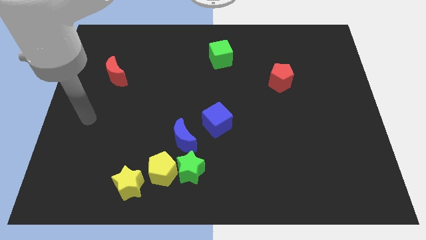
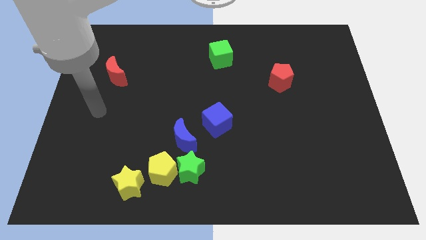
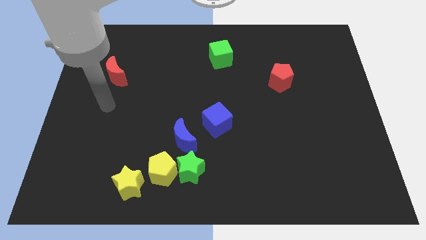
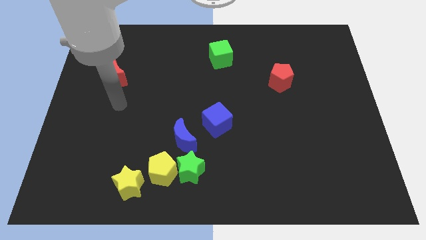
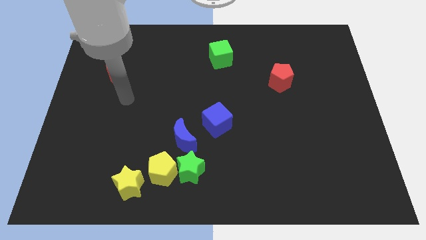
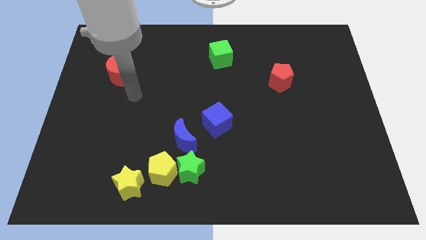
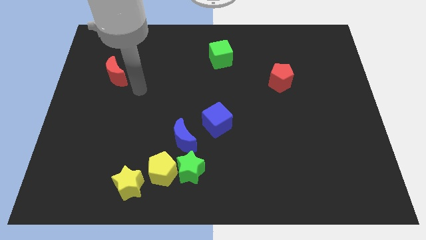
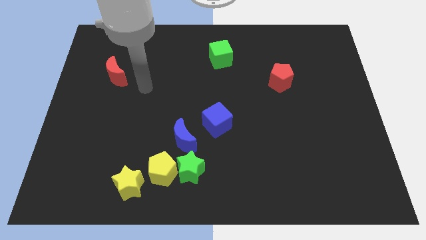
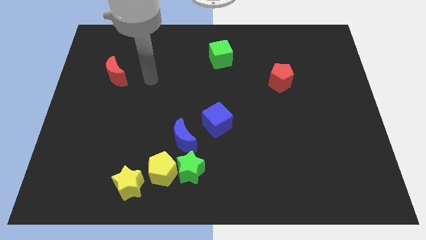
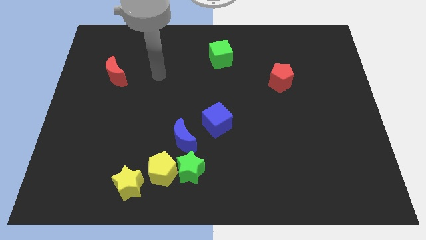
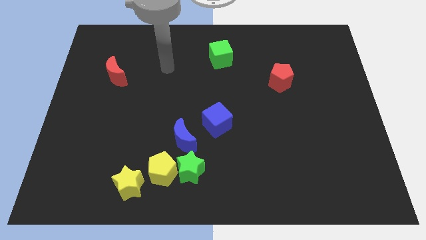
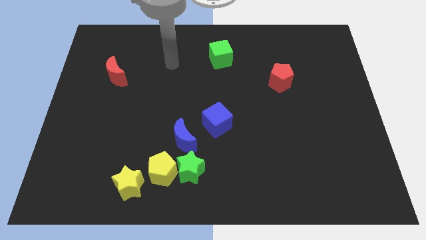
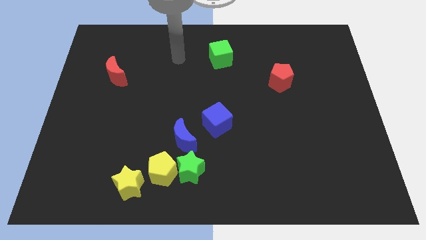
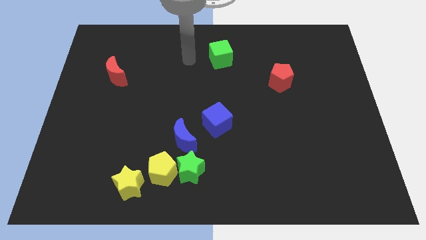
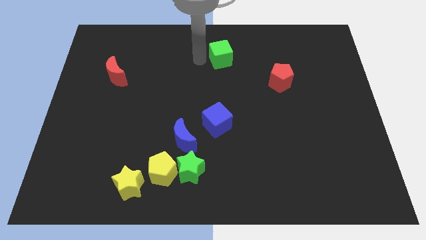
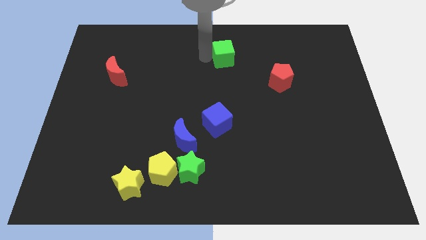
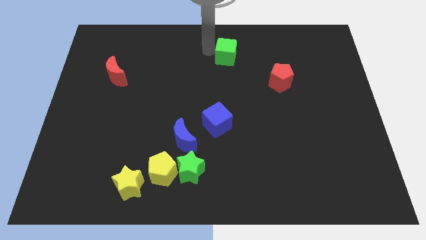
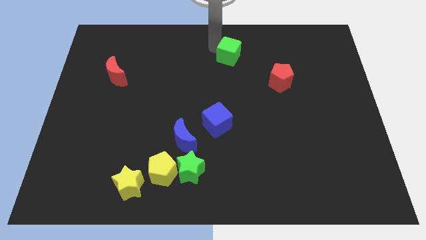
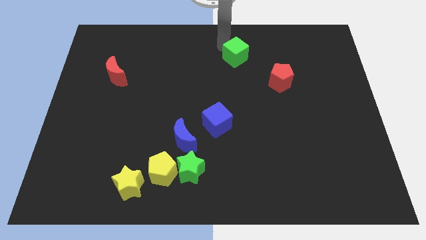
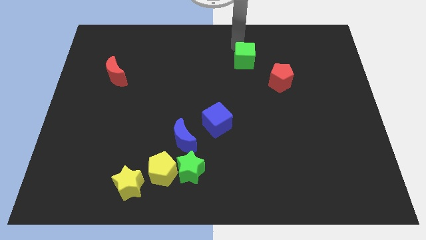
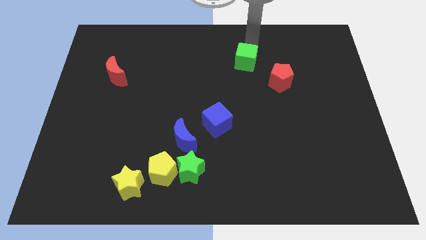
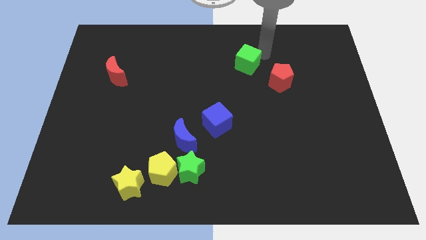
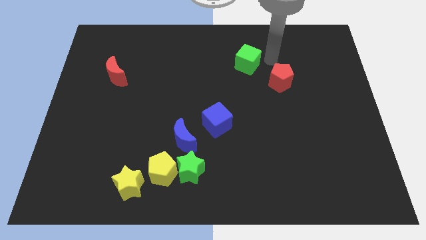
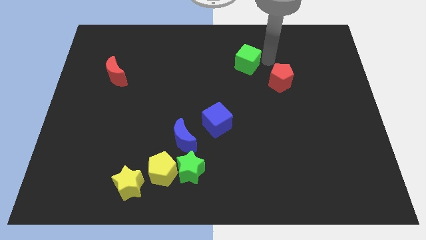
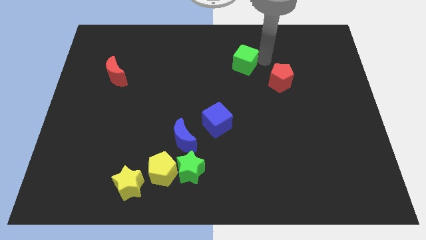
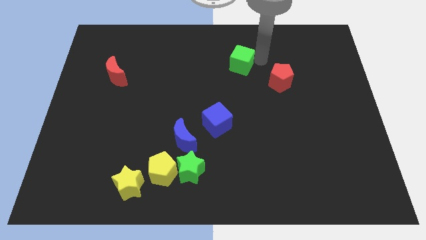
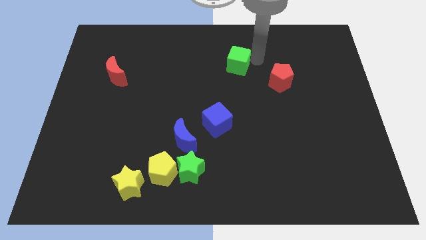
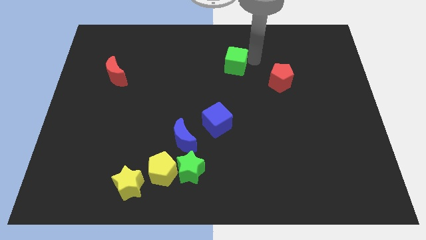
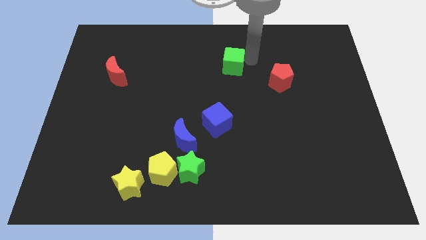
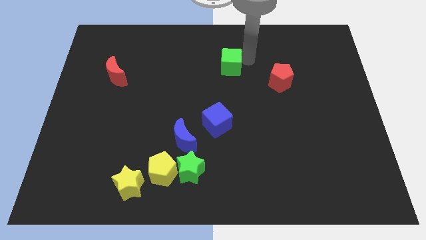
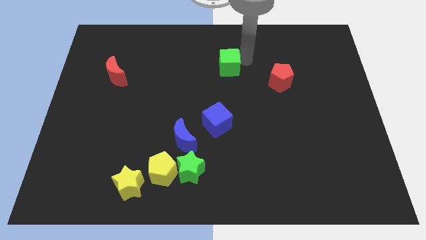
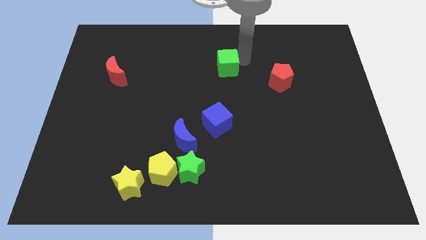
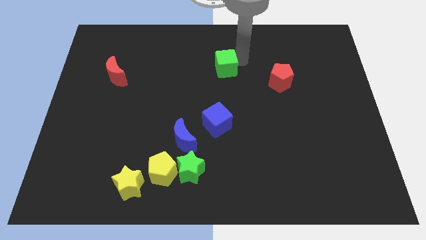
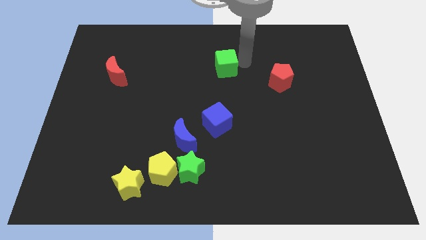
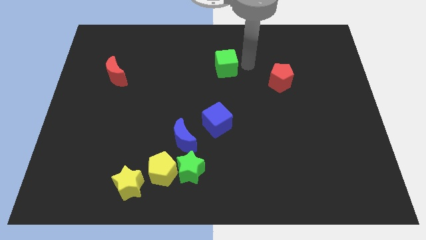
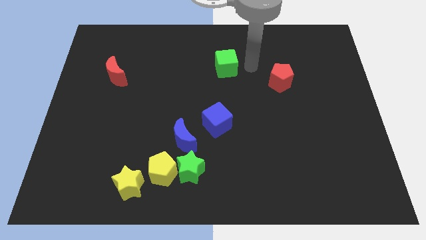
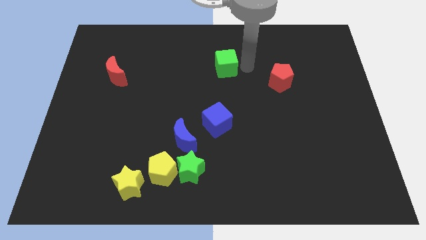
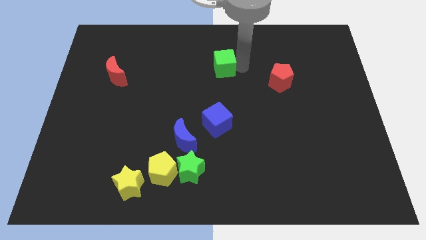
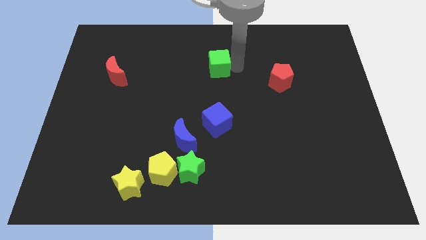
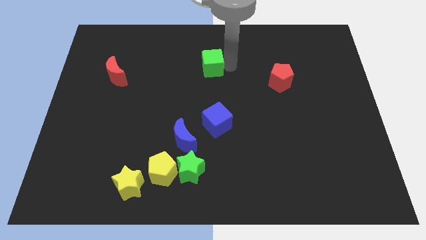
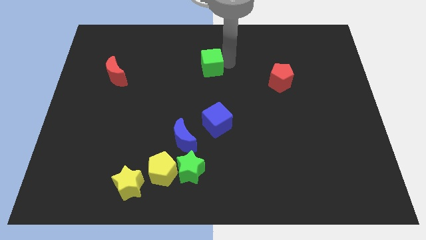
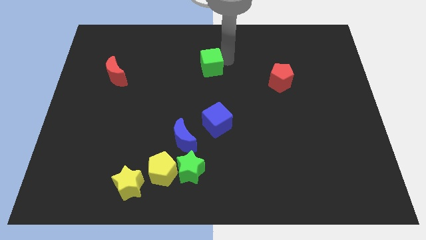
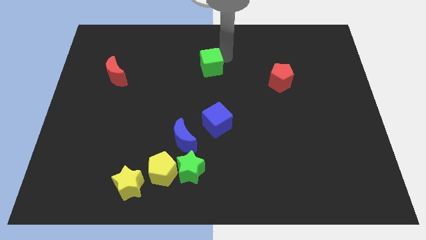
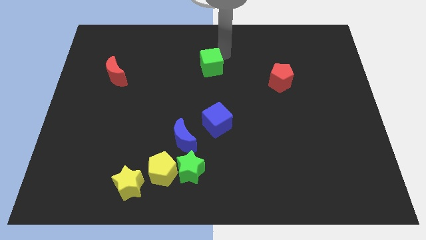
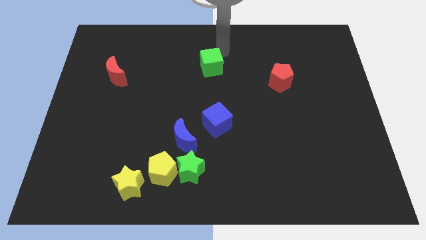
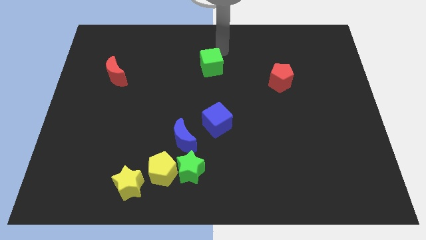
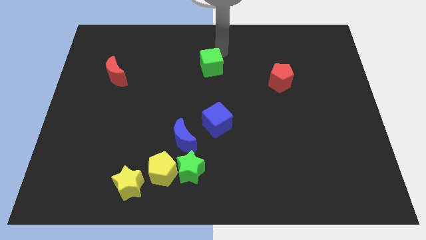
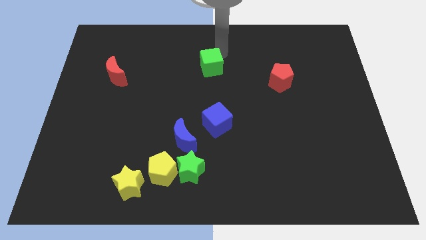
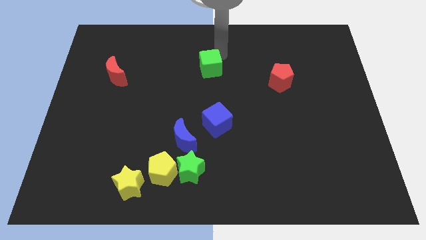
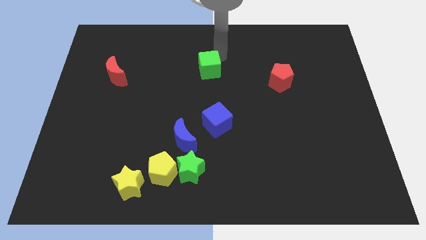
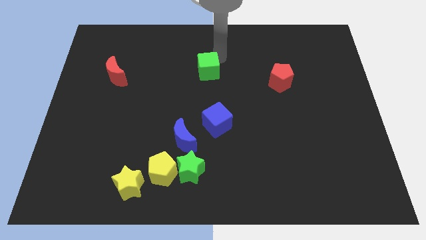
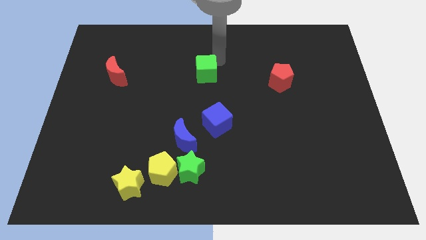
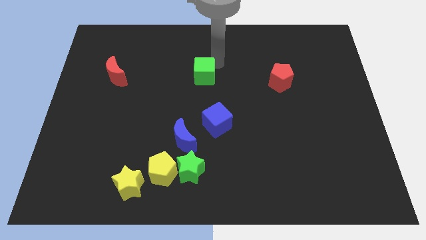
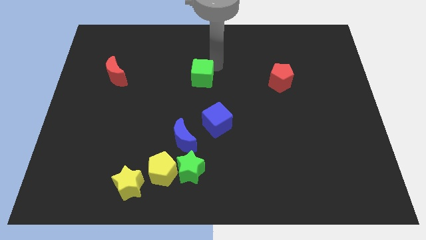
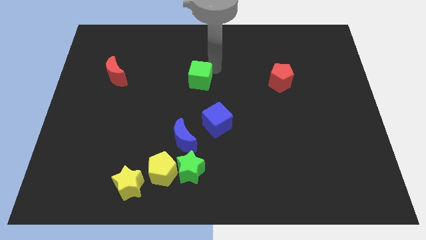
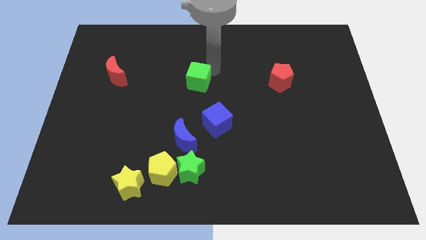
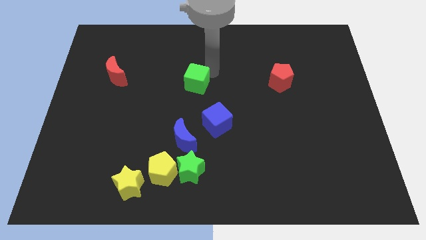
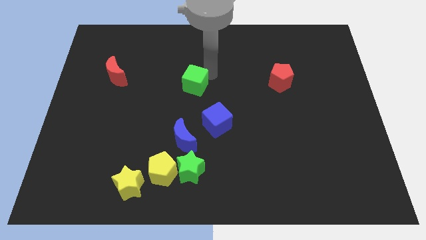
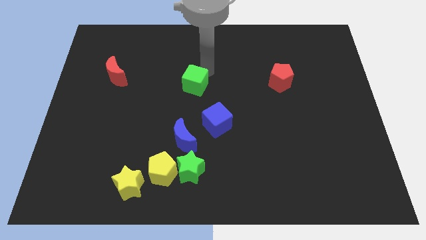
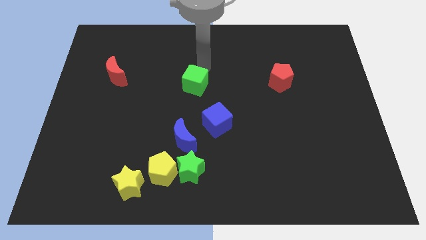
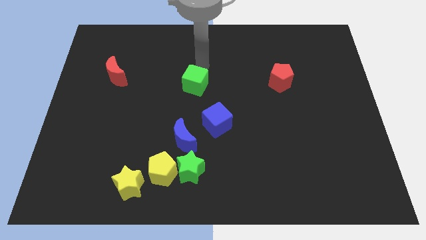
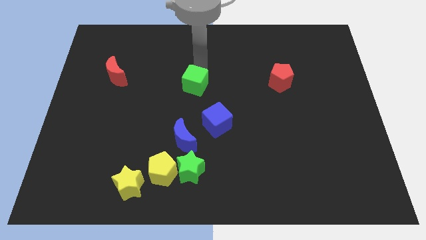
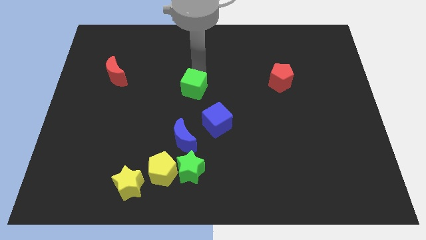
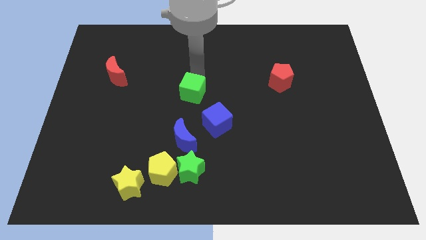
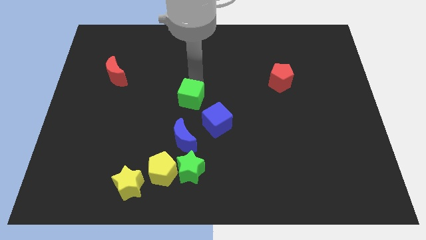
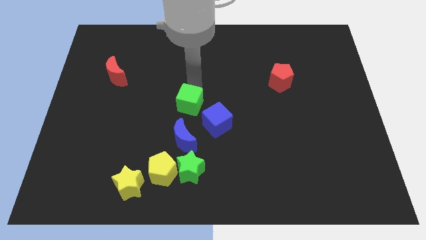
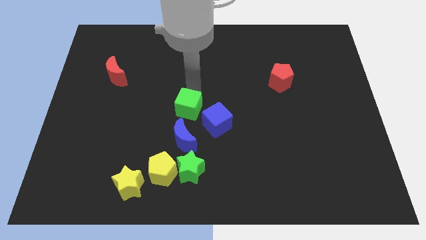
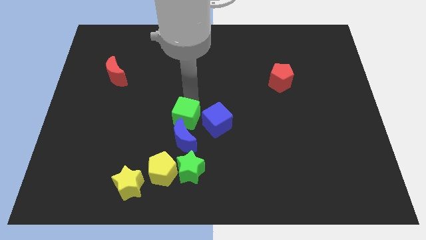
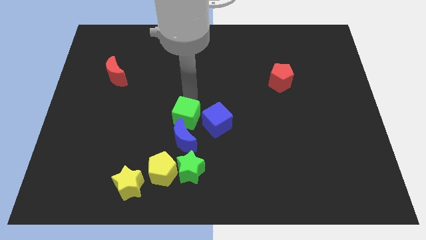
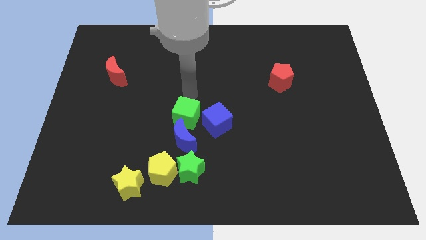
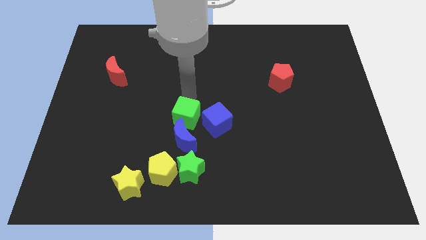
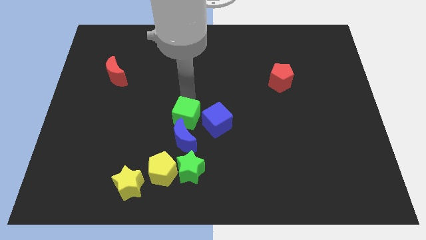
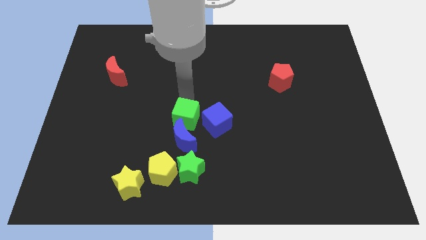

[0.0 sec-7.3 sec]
slide the green cube to the blue moon
